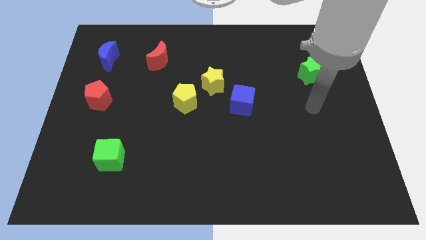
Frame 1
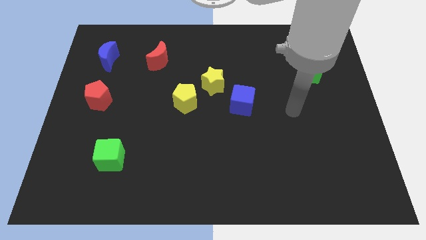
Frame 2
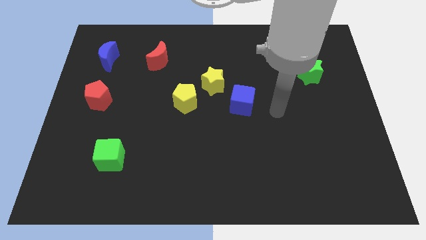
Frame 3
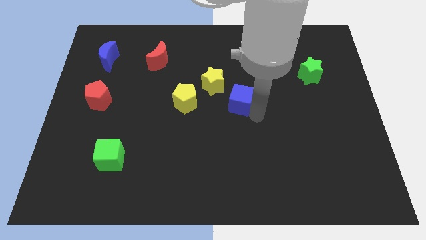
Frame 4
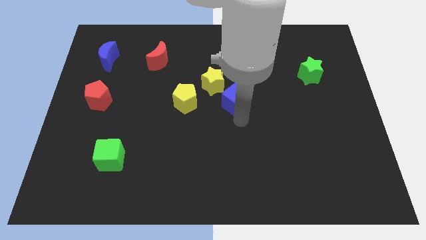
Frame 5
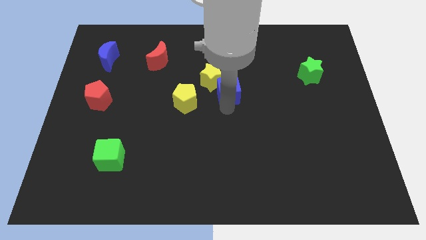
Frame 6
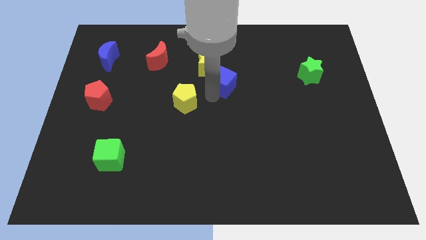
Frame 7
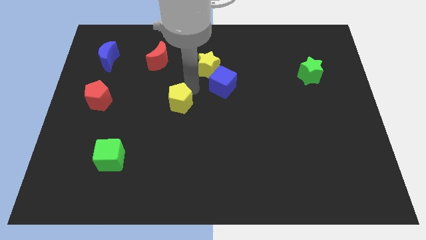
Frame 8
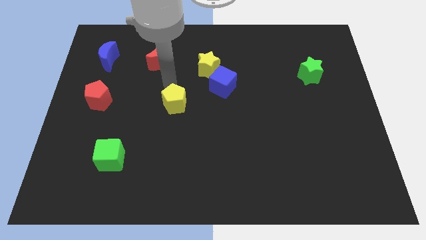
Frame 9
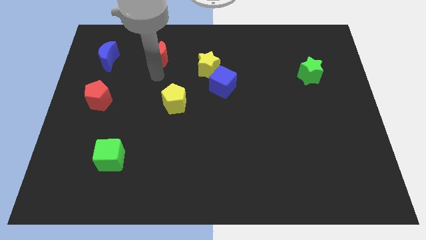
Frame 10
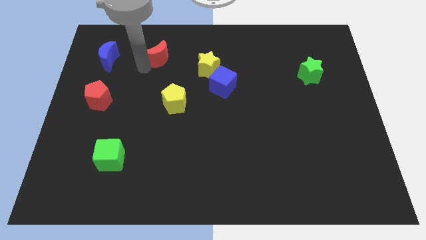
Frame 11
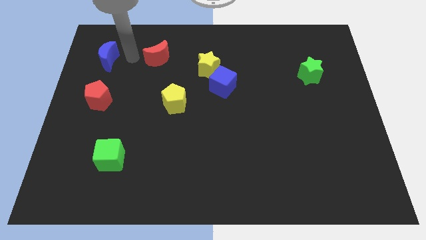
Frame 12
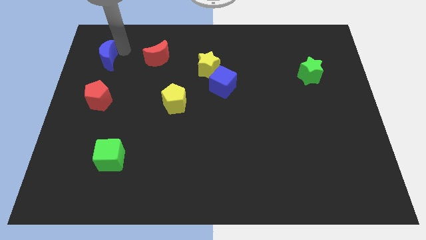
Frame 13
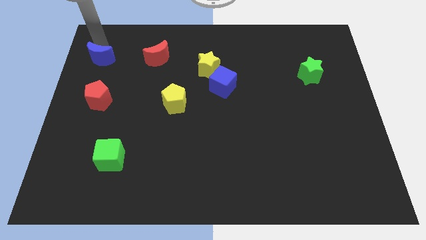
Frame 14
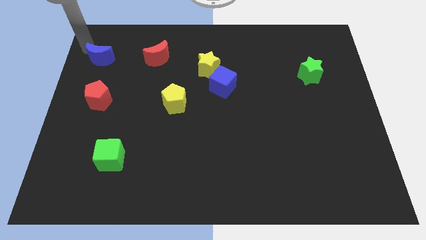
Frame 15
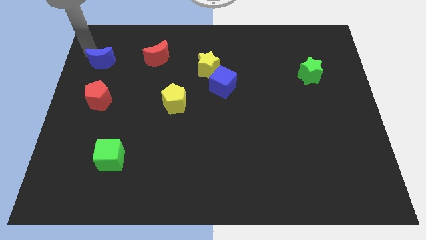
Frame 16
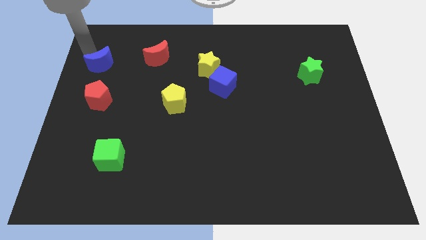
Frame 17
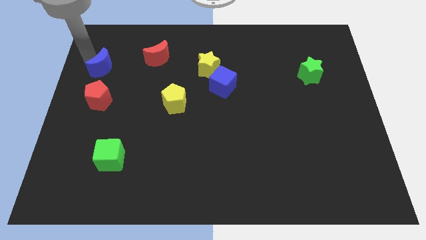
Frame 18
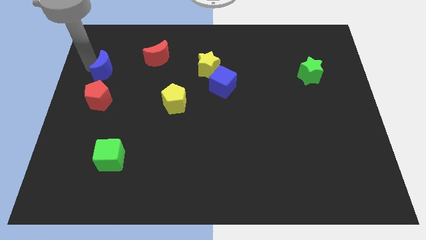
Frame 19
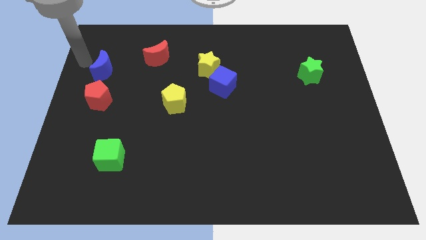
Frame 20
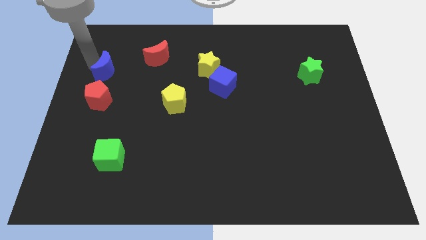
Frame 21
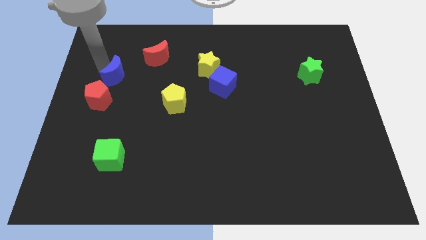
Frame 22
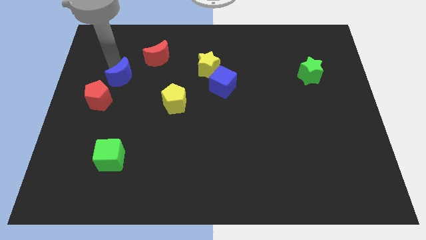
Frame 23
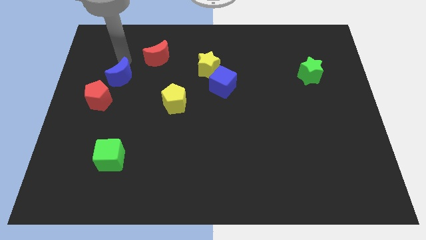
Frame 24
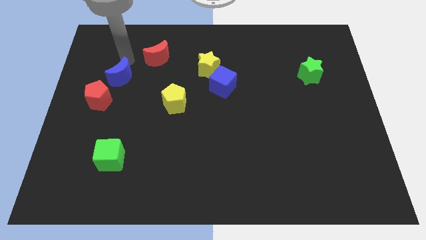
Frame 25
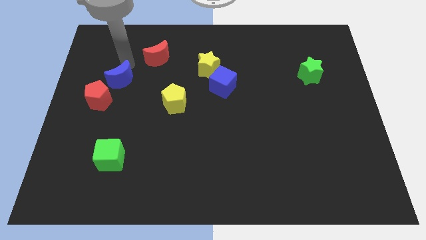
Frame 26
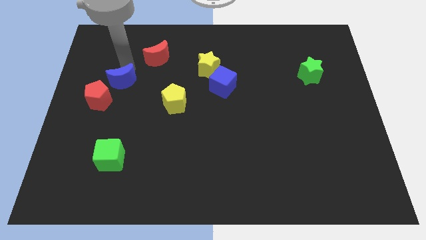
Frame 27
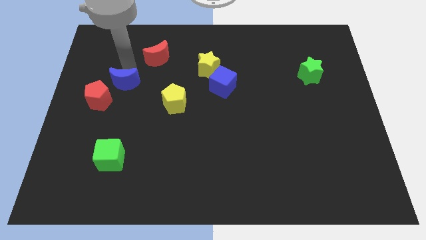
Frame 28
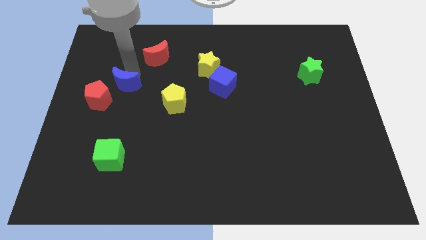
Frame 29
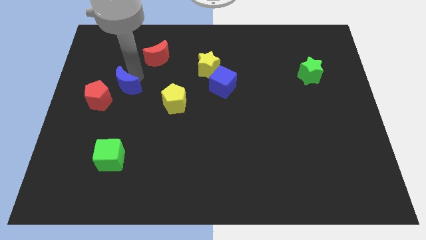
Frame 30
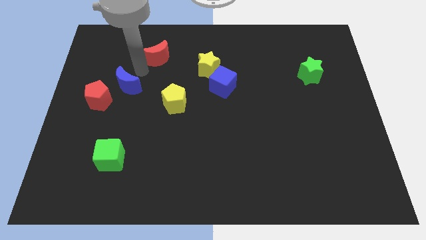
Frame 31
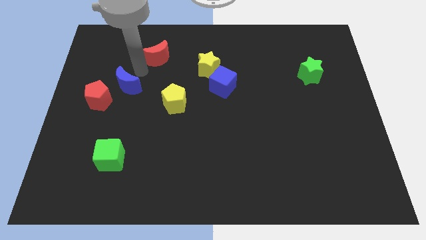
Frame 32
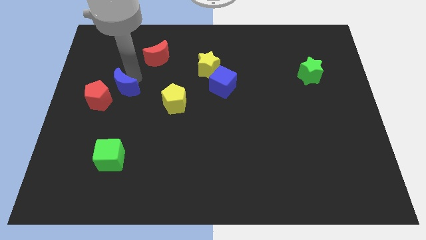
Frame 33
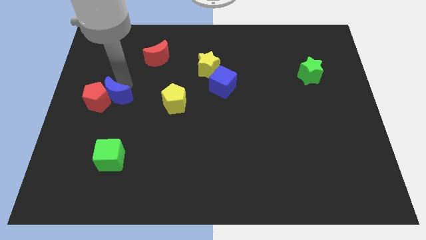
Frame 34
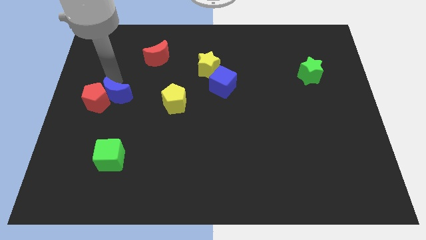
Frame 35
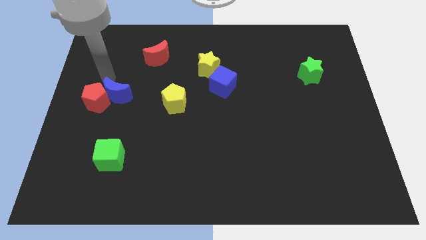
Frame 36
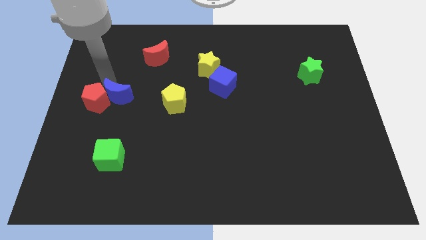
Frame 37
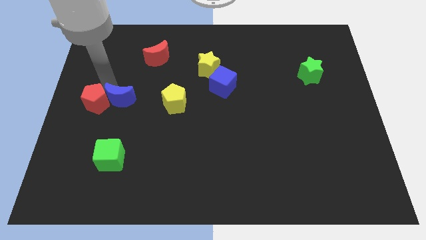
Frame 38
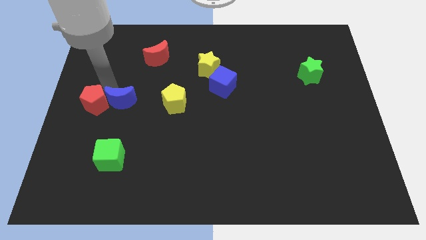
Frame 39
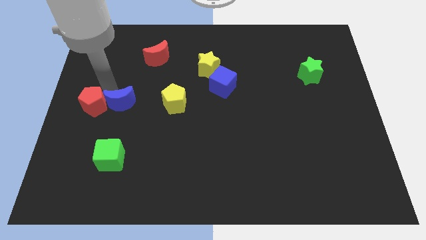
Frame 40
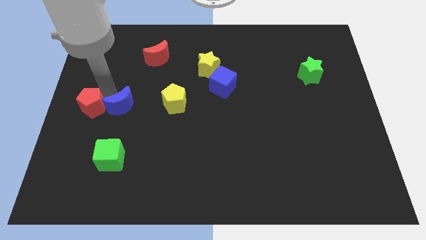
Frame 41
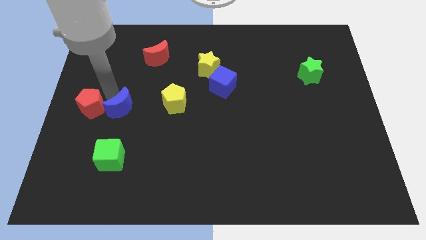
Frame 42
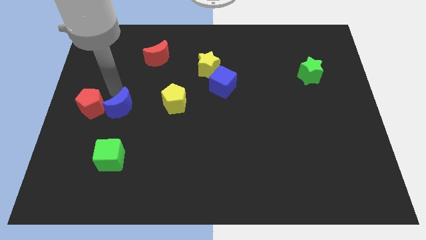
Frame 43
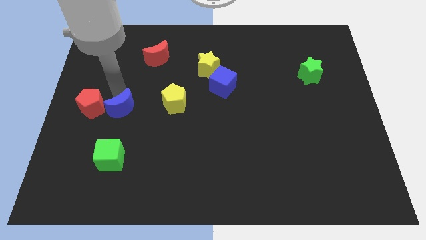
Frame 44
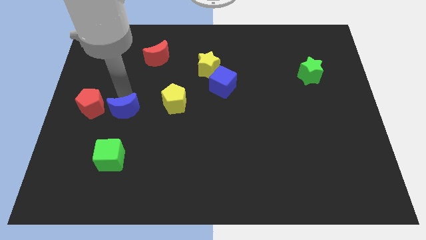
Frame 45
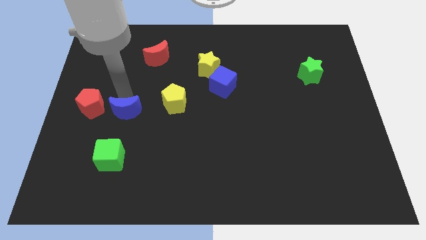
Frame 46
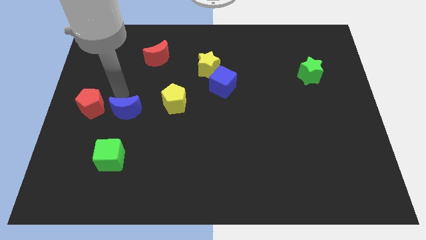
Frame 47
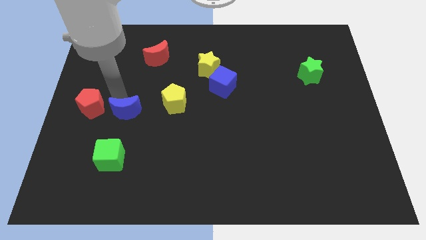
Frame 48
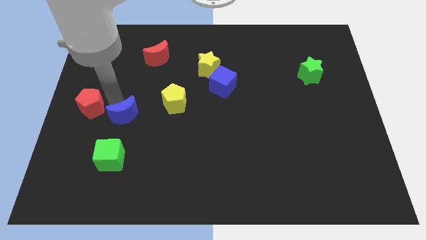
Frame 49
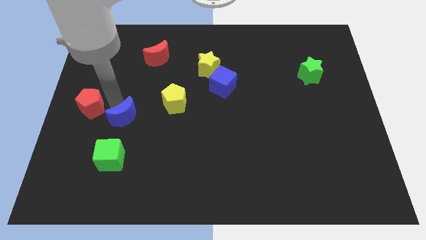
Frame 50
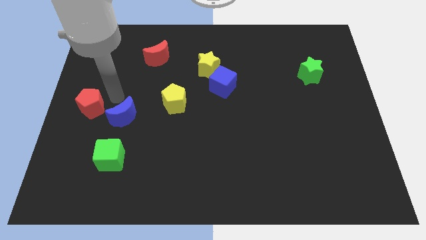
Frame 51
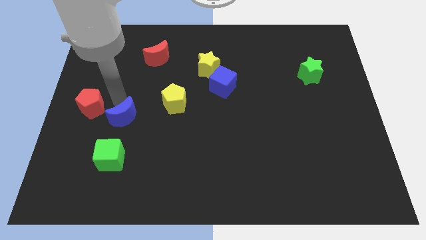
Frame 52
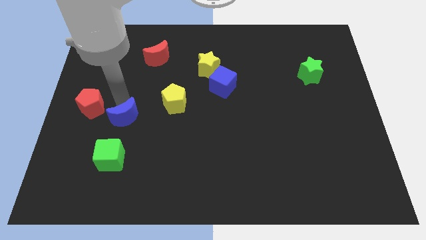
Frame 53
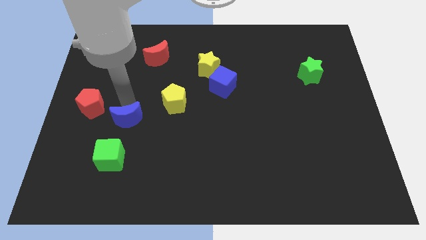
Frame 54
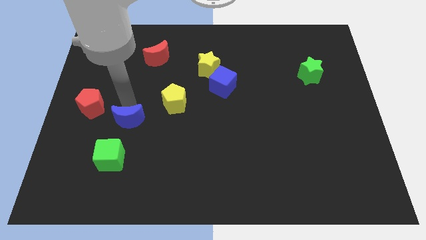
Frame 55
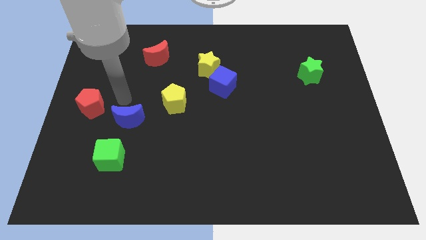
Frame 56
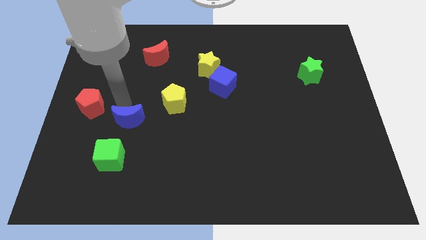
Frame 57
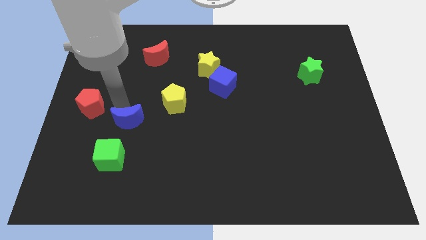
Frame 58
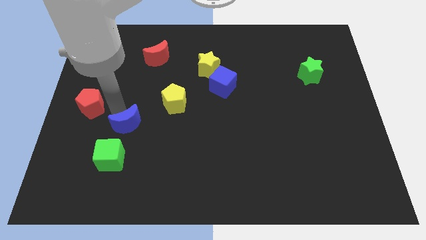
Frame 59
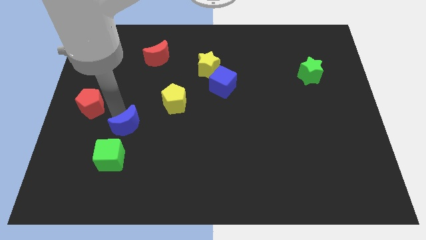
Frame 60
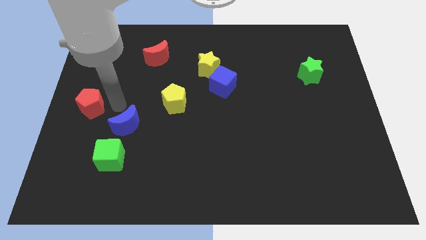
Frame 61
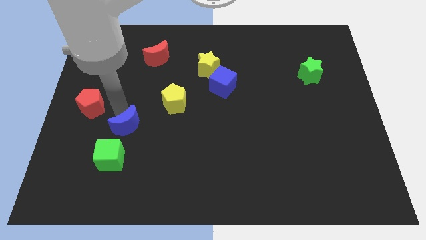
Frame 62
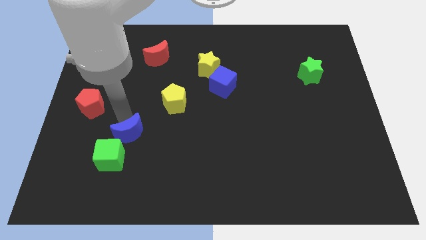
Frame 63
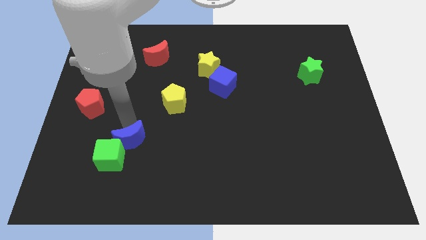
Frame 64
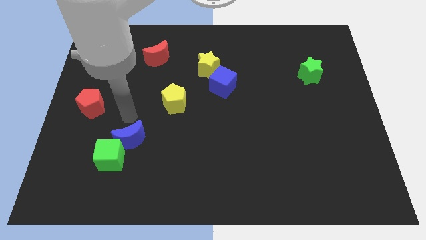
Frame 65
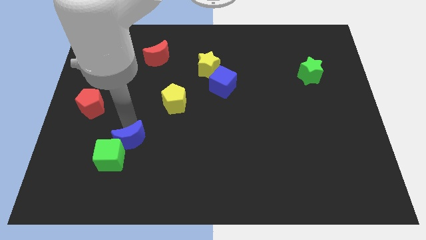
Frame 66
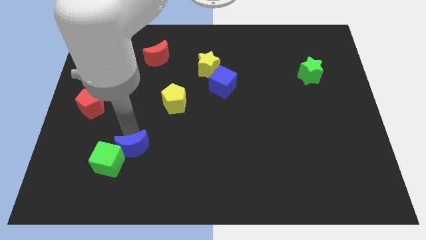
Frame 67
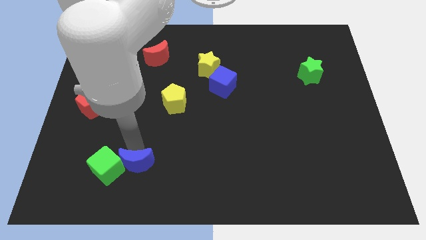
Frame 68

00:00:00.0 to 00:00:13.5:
push the blue moon diagonally down and to the right of the green cube

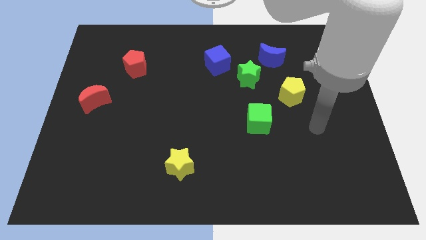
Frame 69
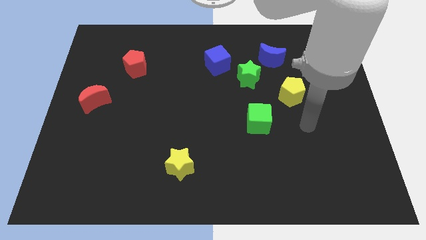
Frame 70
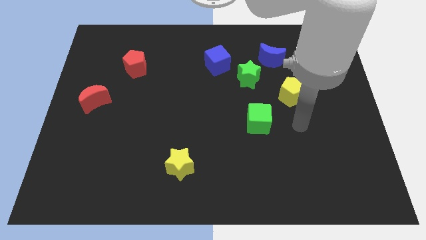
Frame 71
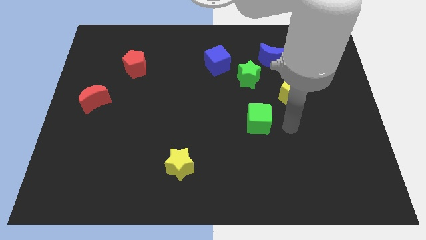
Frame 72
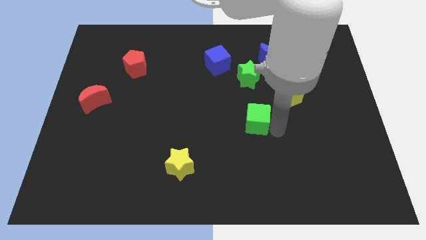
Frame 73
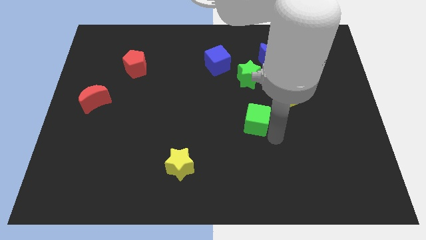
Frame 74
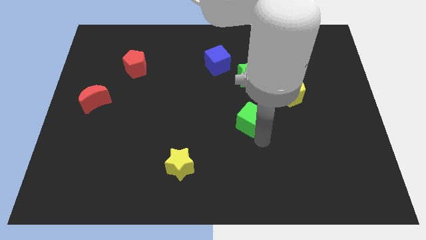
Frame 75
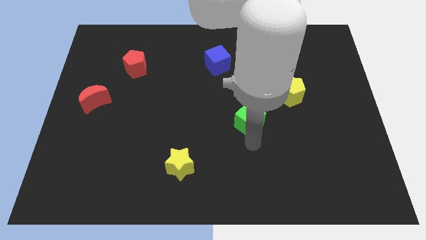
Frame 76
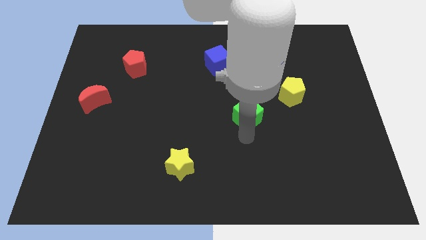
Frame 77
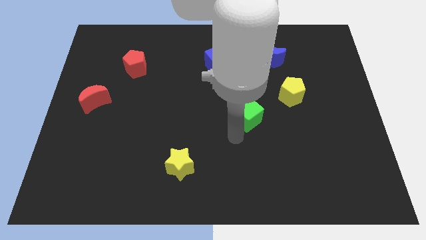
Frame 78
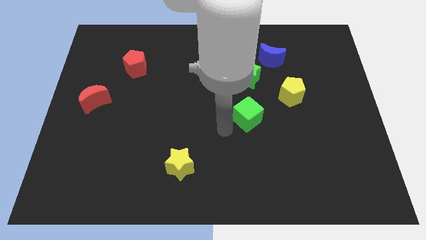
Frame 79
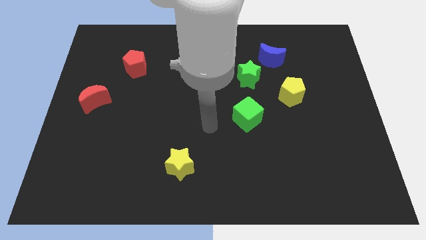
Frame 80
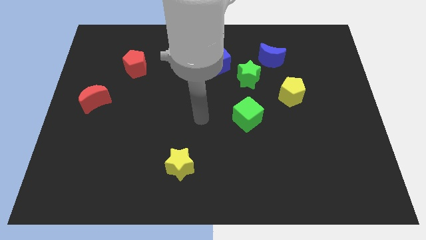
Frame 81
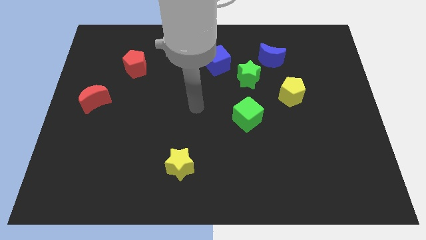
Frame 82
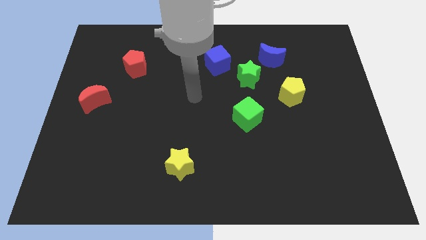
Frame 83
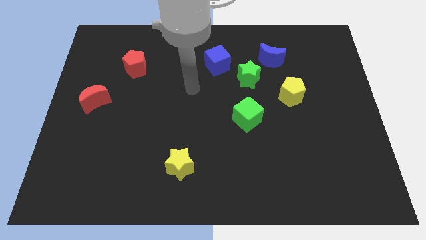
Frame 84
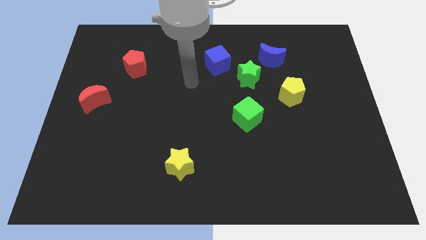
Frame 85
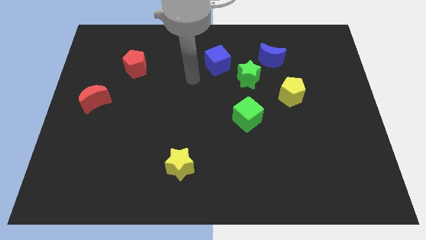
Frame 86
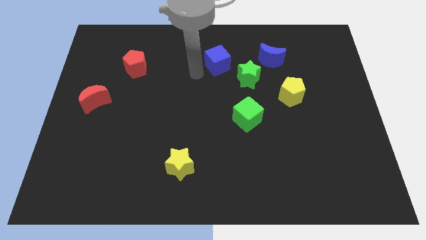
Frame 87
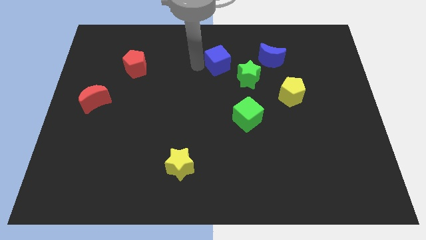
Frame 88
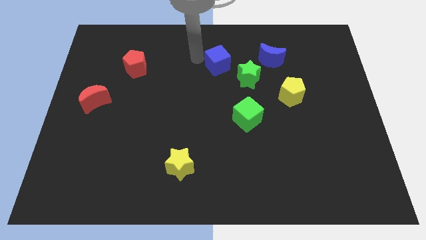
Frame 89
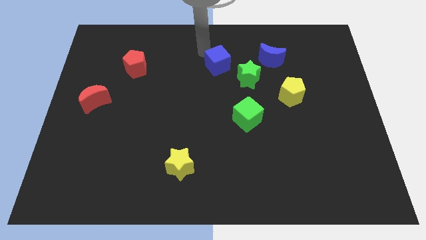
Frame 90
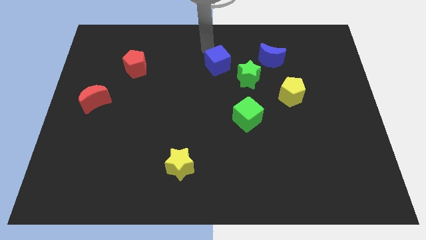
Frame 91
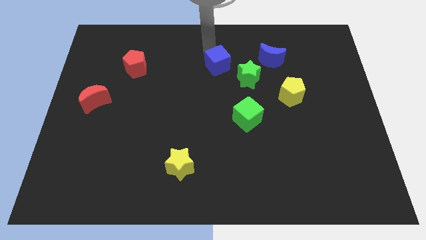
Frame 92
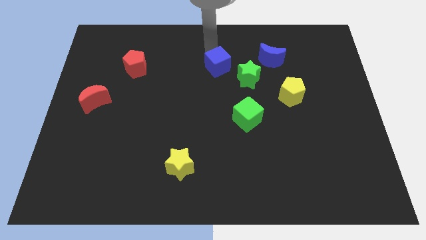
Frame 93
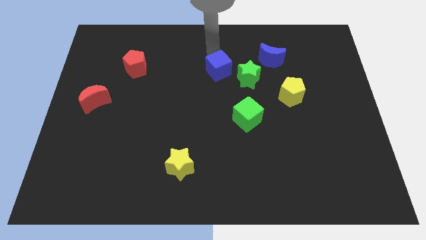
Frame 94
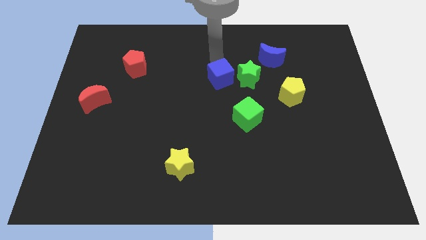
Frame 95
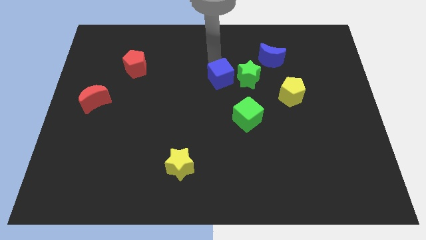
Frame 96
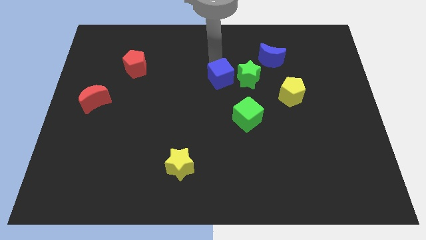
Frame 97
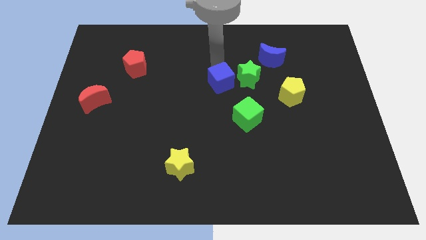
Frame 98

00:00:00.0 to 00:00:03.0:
put the blue cube to the bottom left of the green star
